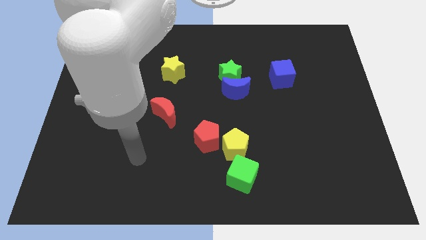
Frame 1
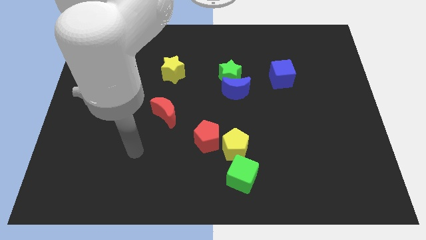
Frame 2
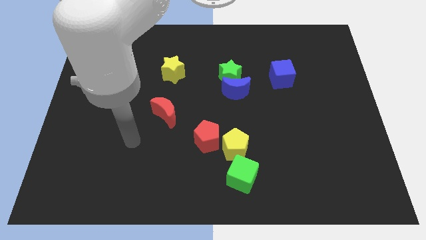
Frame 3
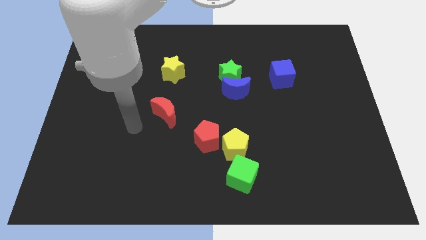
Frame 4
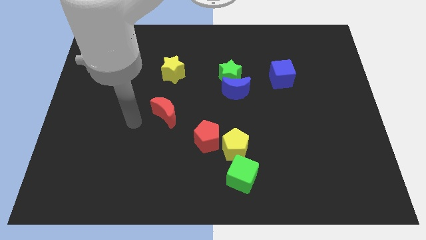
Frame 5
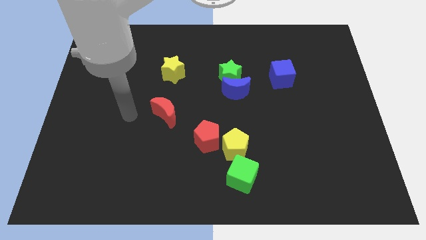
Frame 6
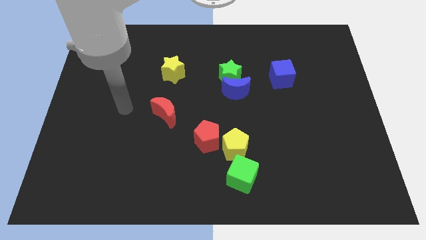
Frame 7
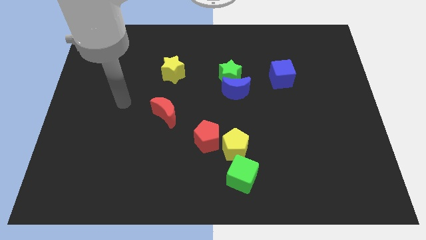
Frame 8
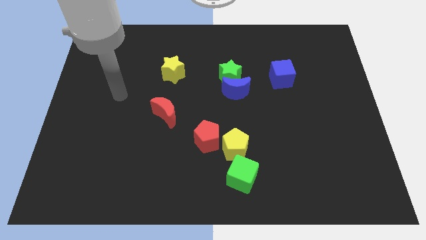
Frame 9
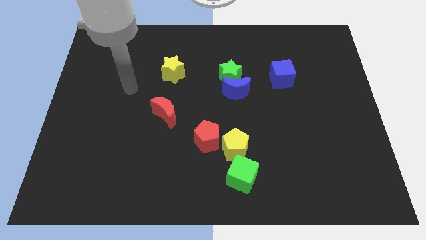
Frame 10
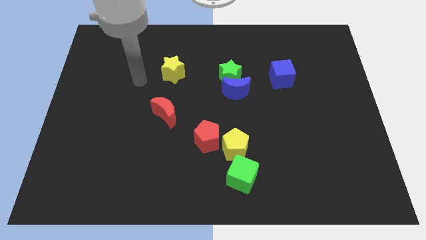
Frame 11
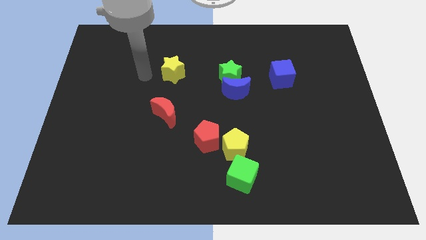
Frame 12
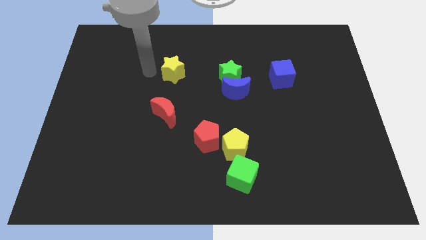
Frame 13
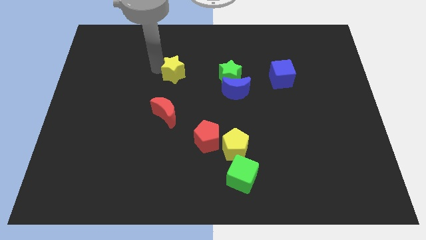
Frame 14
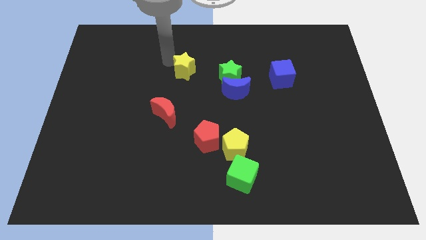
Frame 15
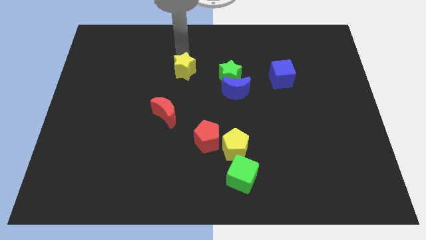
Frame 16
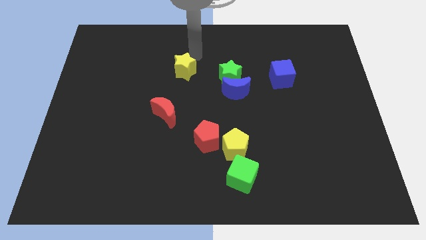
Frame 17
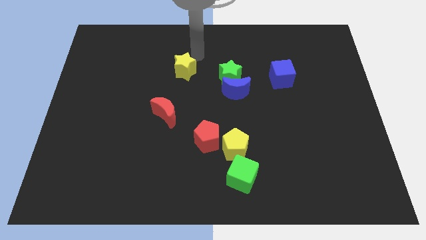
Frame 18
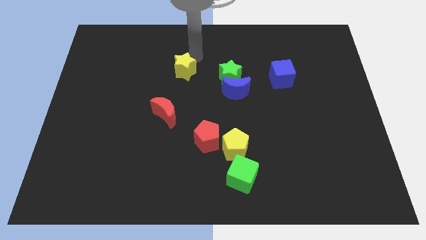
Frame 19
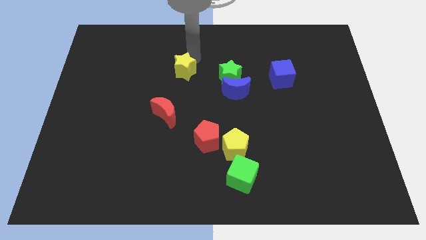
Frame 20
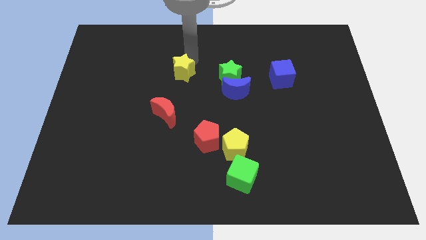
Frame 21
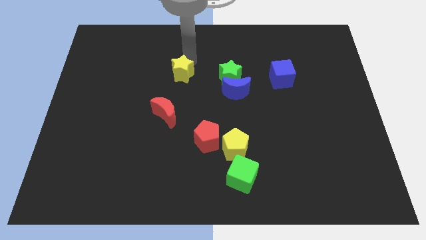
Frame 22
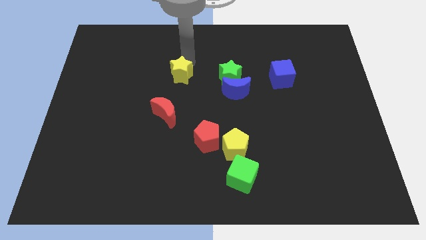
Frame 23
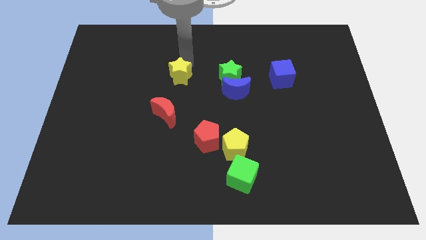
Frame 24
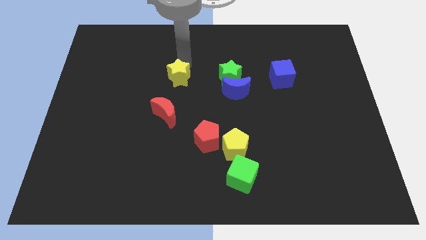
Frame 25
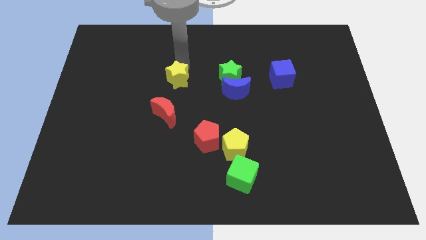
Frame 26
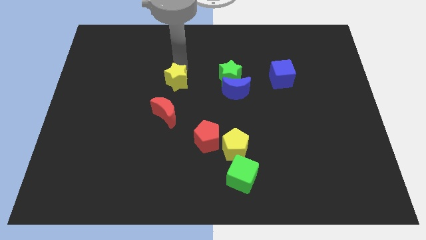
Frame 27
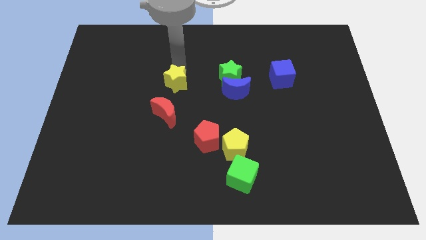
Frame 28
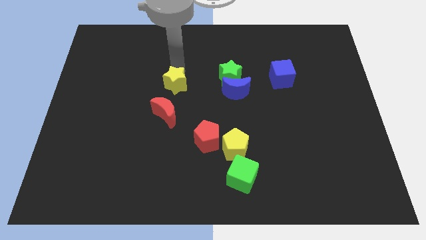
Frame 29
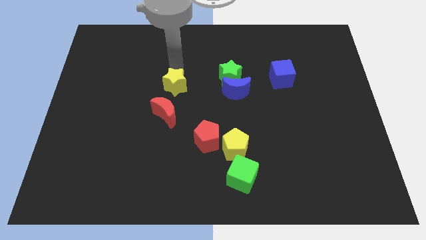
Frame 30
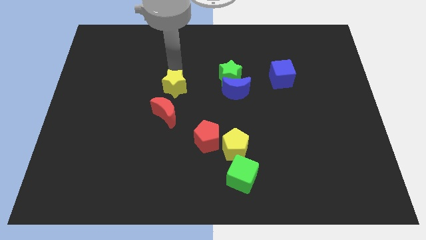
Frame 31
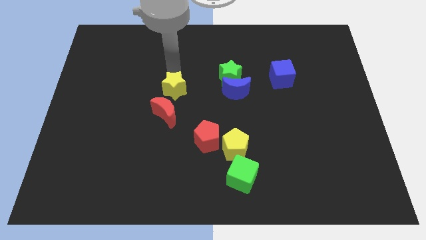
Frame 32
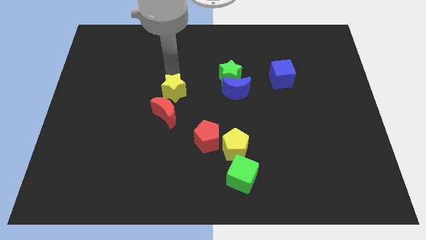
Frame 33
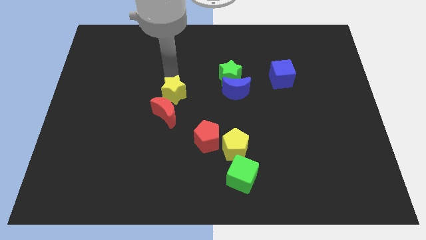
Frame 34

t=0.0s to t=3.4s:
move the yellow star downwards a little bit

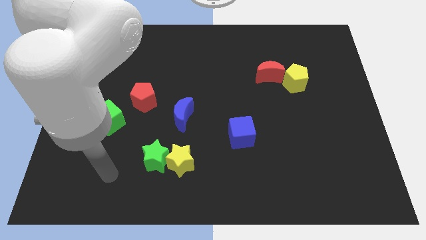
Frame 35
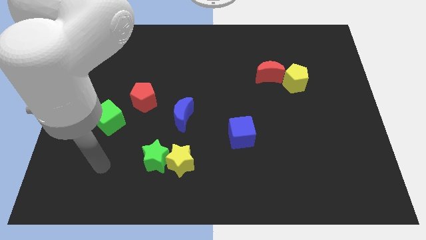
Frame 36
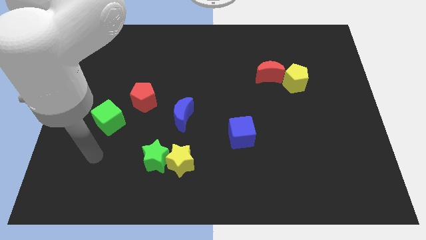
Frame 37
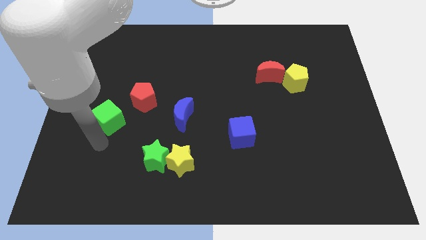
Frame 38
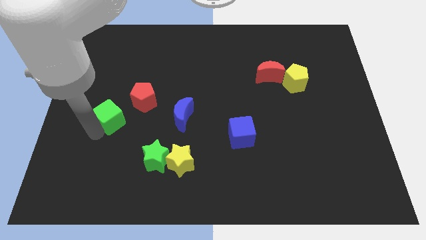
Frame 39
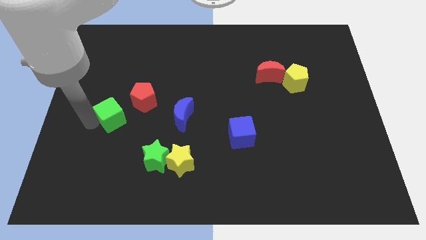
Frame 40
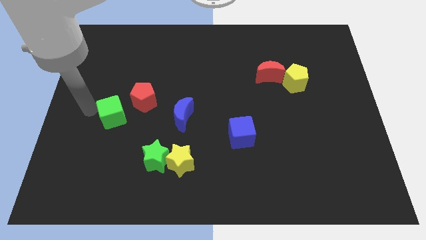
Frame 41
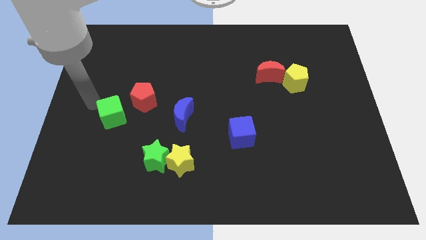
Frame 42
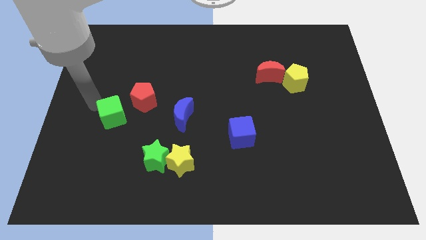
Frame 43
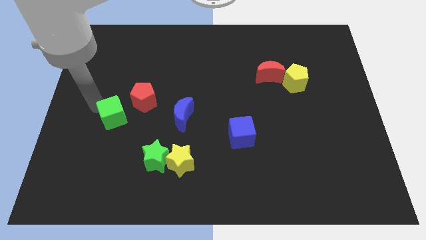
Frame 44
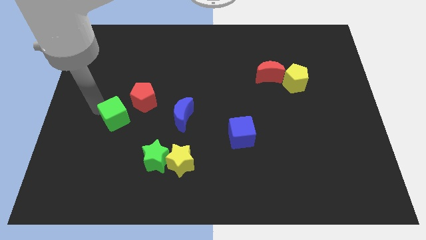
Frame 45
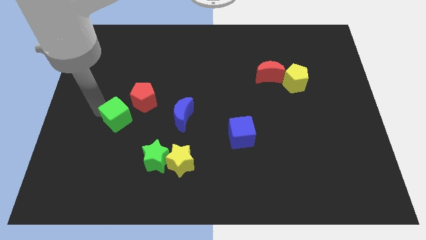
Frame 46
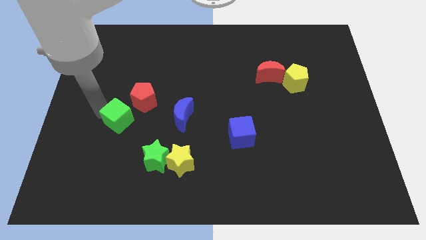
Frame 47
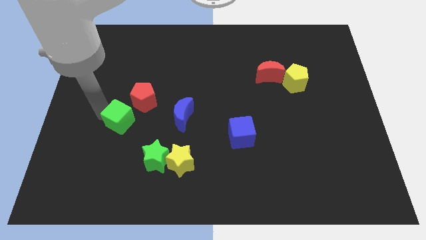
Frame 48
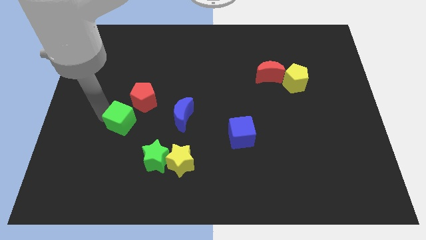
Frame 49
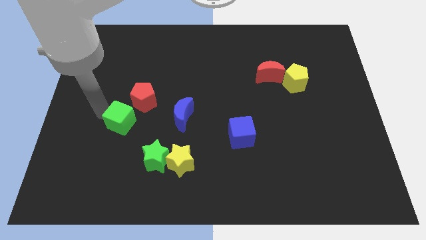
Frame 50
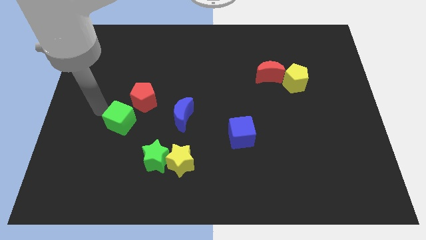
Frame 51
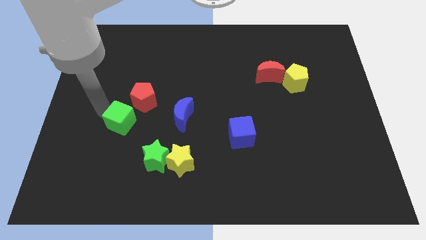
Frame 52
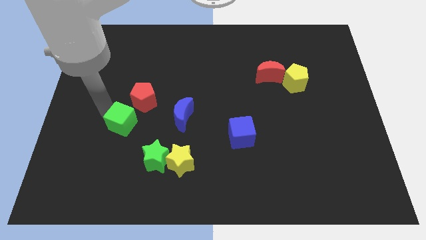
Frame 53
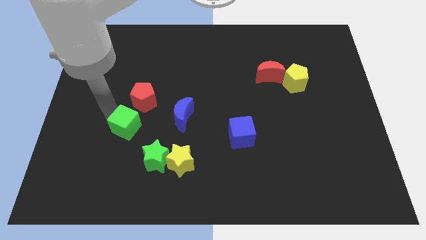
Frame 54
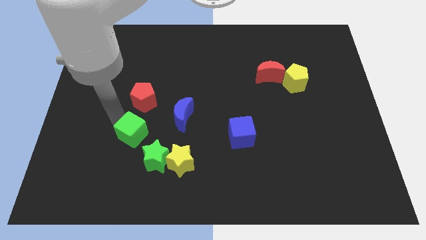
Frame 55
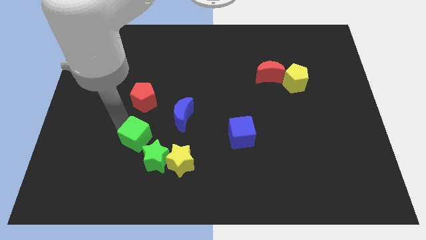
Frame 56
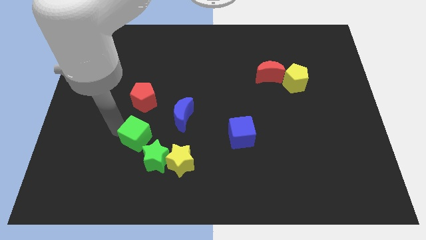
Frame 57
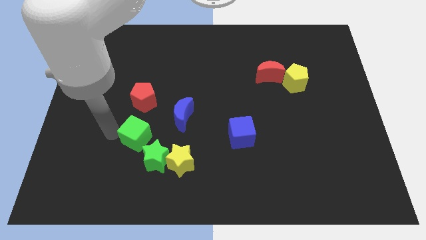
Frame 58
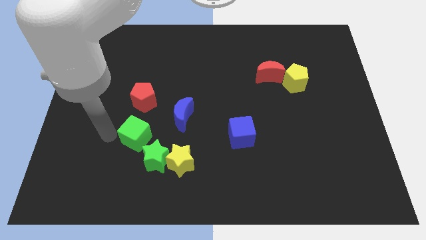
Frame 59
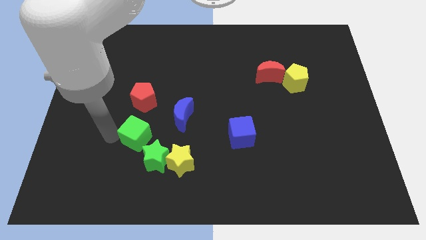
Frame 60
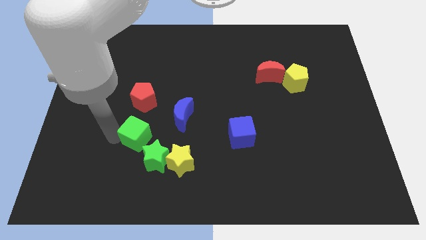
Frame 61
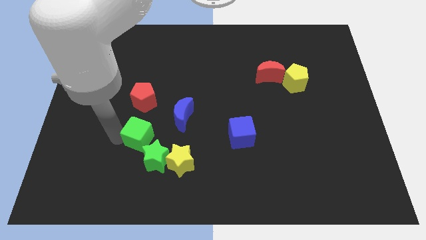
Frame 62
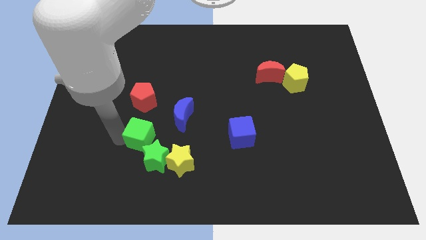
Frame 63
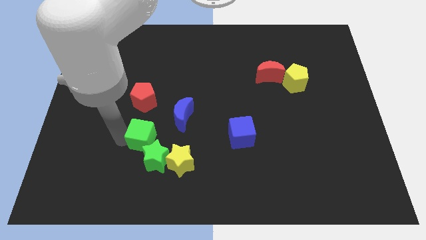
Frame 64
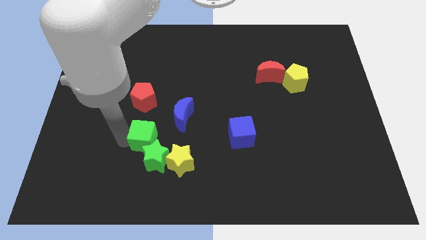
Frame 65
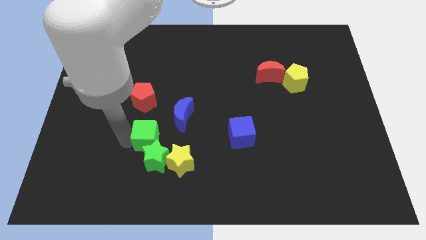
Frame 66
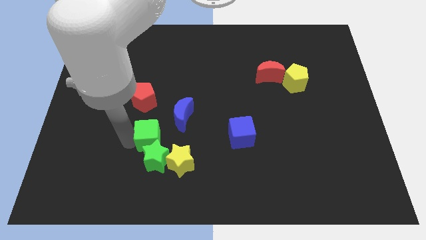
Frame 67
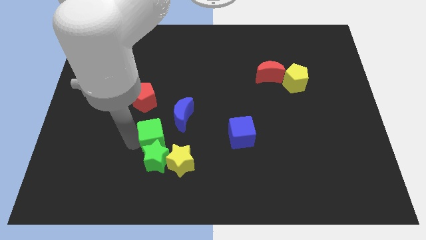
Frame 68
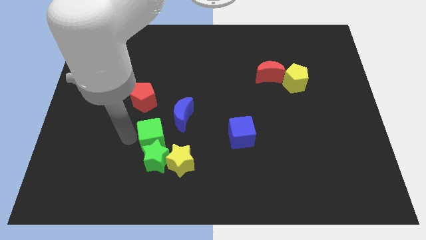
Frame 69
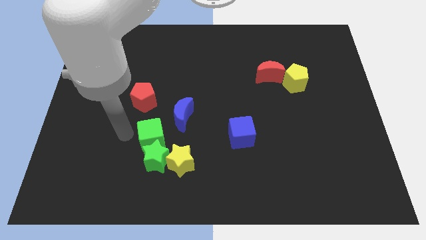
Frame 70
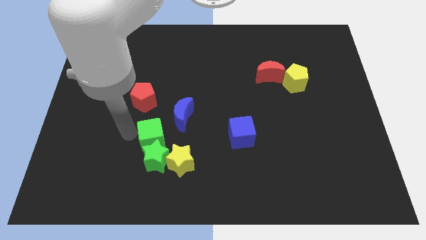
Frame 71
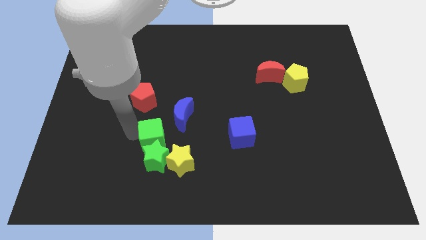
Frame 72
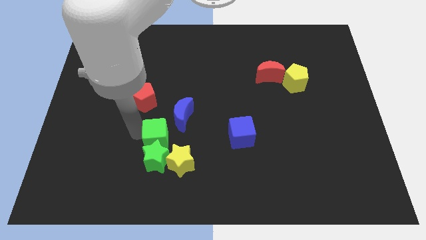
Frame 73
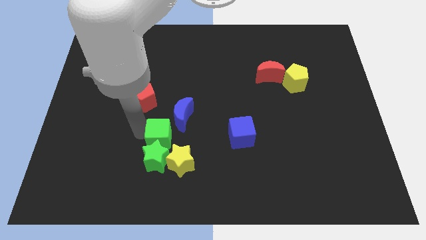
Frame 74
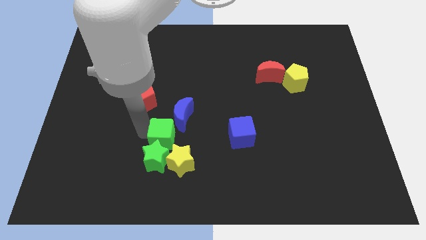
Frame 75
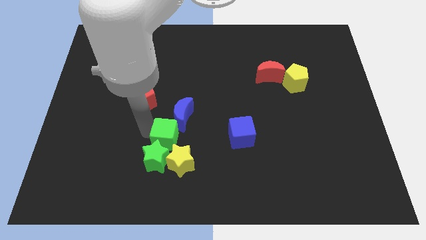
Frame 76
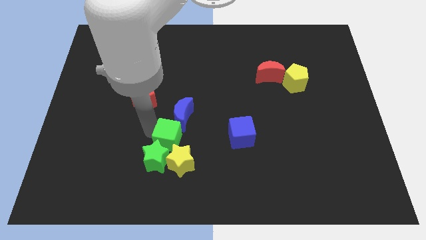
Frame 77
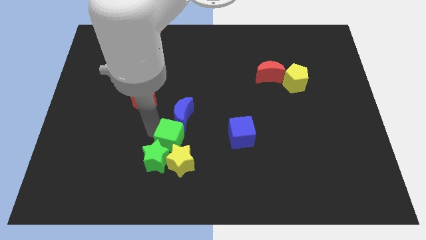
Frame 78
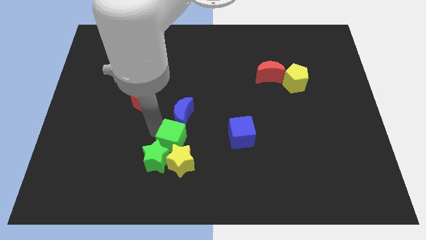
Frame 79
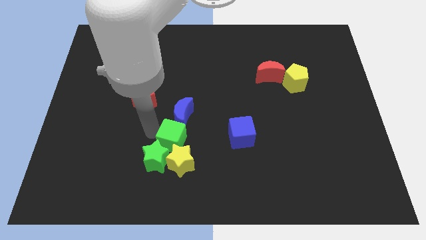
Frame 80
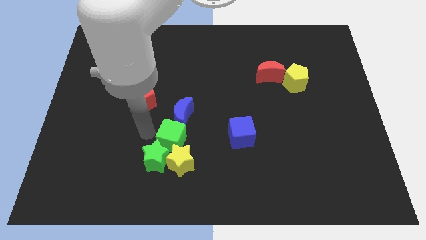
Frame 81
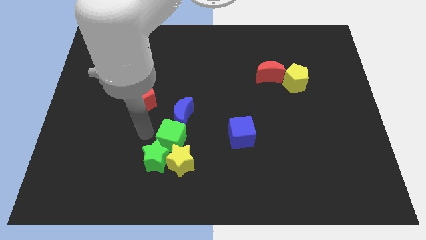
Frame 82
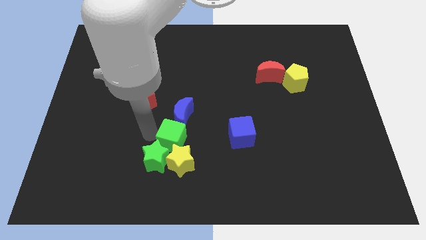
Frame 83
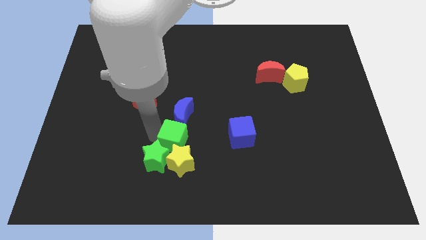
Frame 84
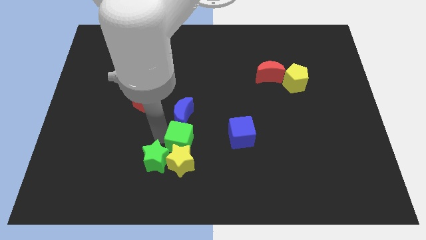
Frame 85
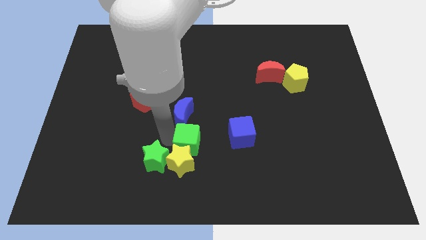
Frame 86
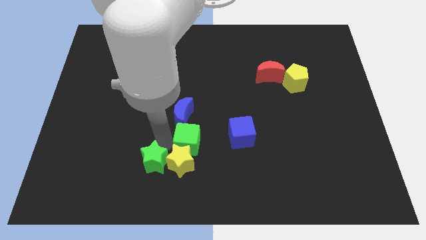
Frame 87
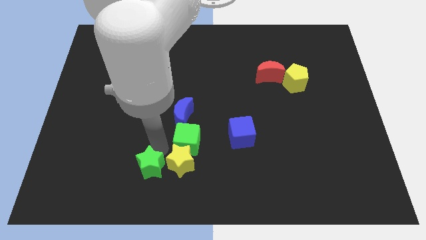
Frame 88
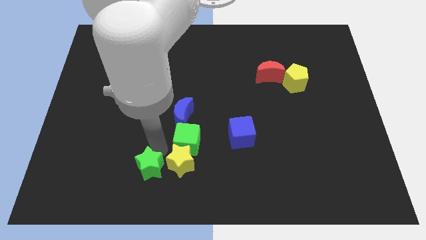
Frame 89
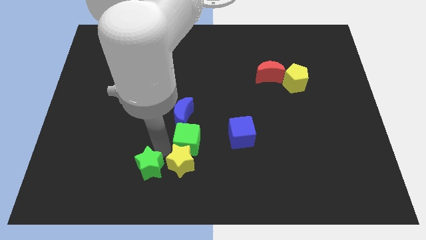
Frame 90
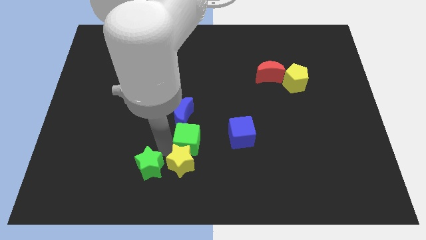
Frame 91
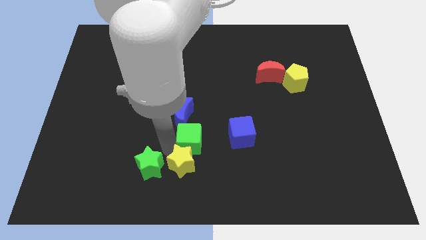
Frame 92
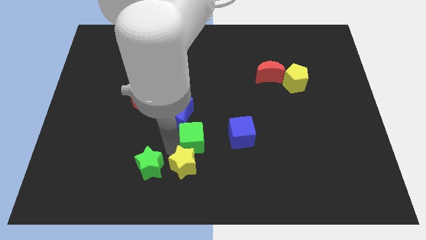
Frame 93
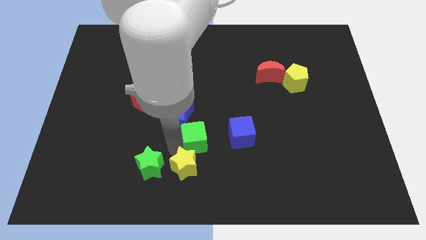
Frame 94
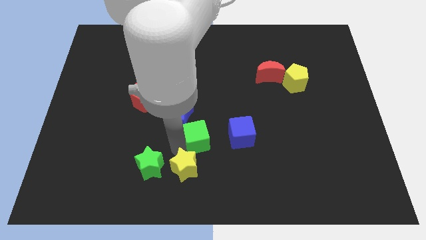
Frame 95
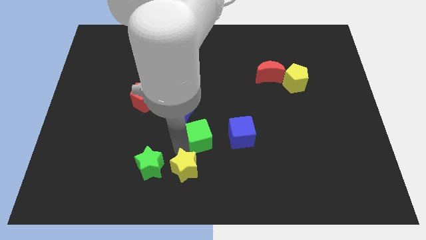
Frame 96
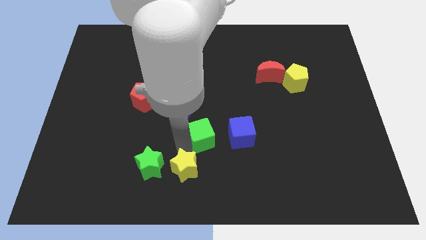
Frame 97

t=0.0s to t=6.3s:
slide the green cube to the right
